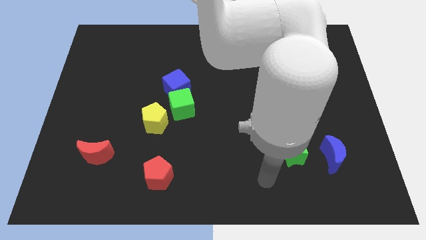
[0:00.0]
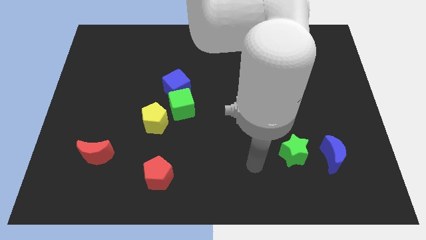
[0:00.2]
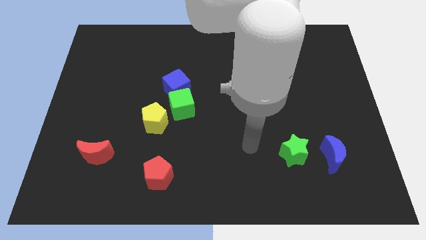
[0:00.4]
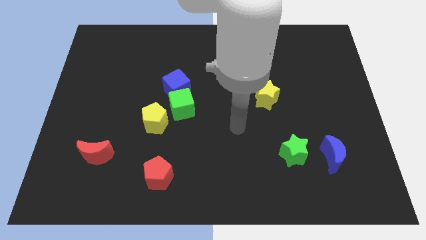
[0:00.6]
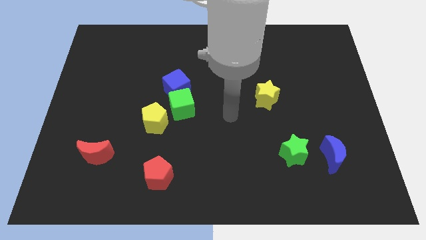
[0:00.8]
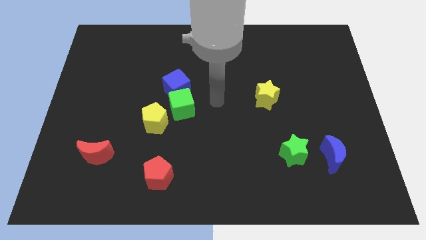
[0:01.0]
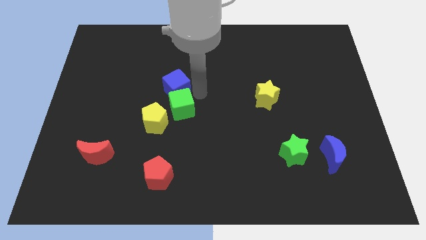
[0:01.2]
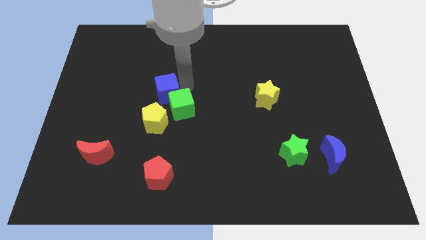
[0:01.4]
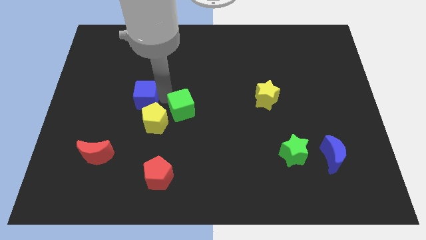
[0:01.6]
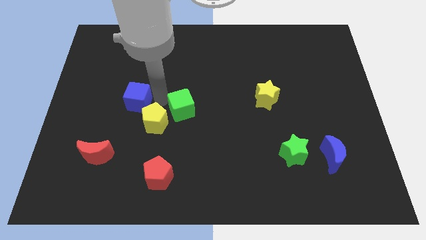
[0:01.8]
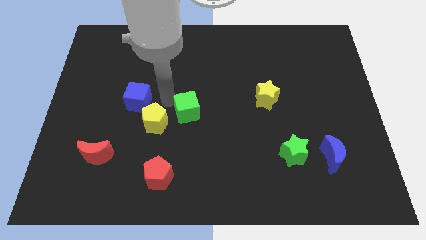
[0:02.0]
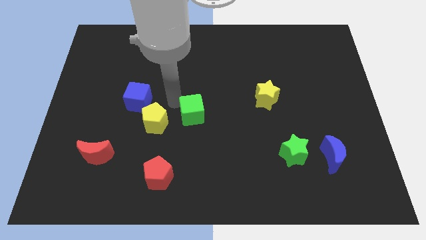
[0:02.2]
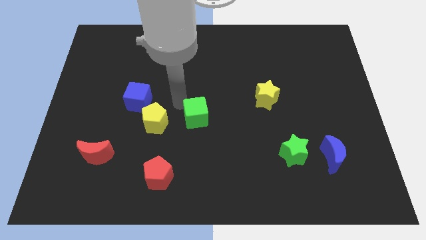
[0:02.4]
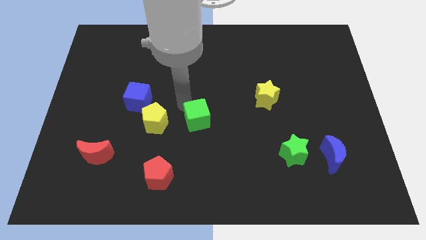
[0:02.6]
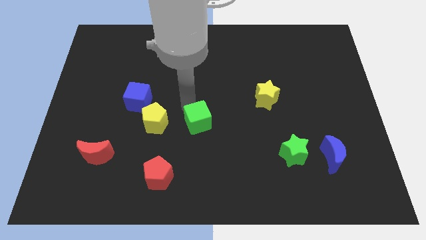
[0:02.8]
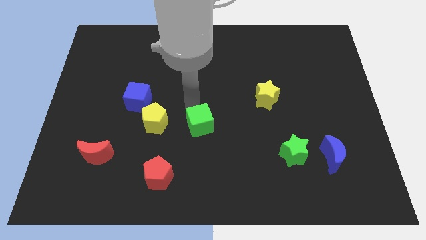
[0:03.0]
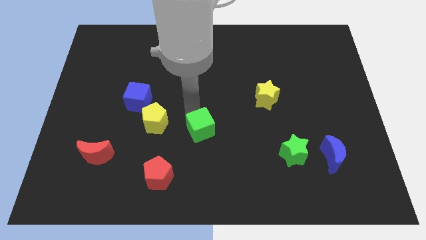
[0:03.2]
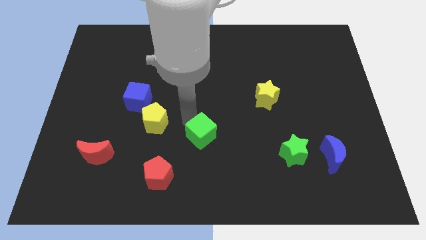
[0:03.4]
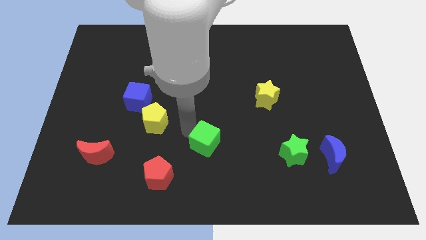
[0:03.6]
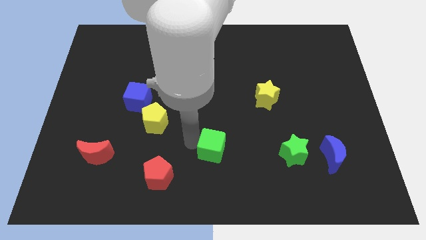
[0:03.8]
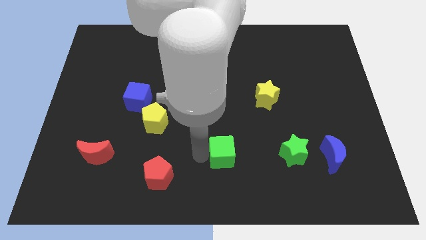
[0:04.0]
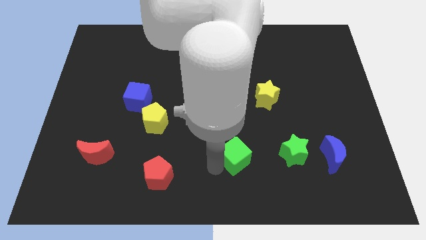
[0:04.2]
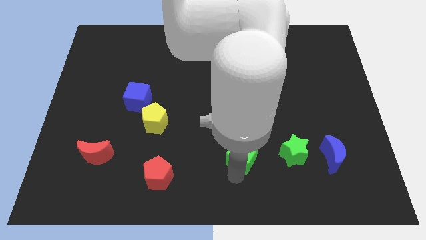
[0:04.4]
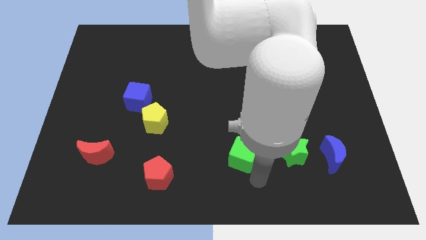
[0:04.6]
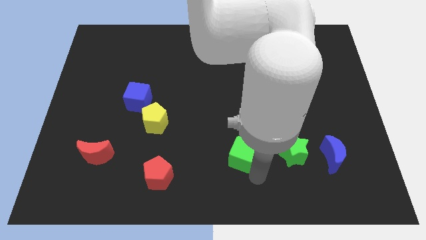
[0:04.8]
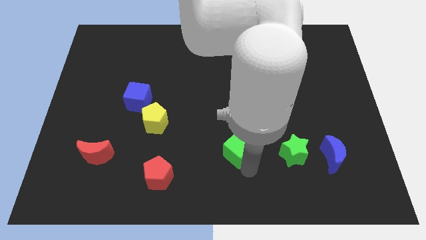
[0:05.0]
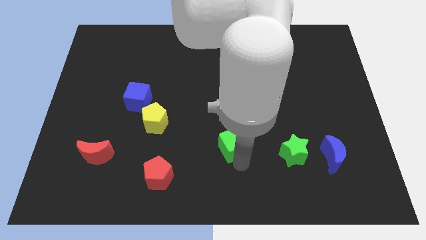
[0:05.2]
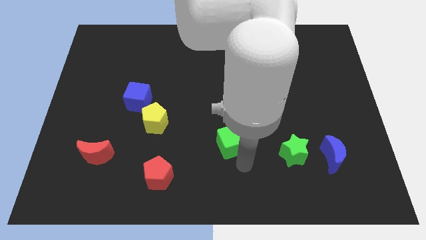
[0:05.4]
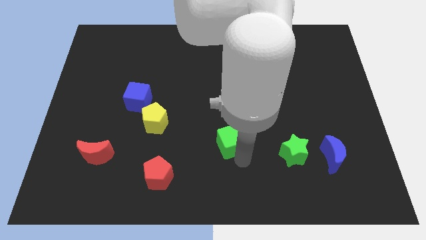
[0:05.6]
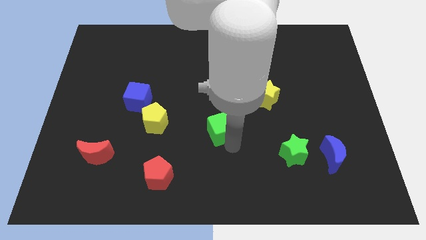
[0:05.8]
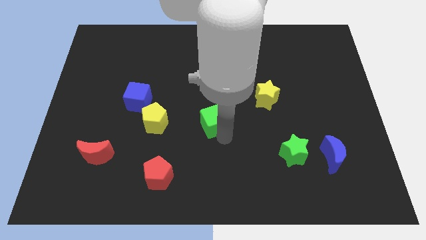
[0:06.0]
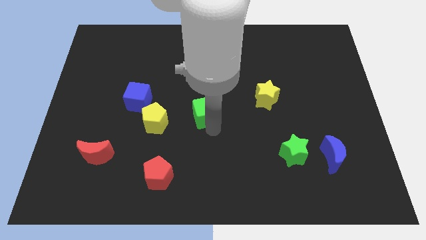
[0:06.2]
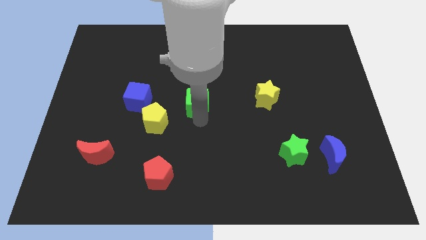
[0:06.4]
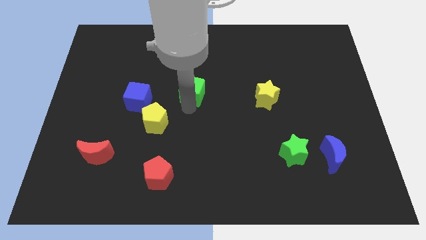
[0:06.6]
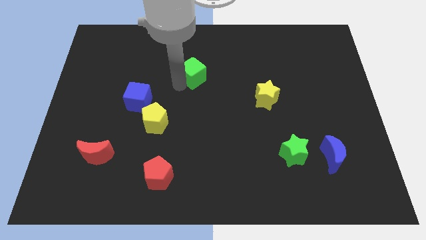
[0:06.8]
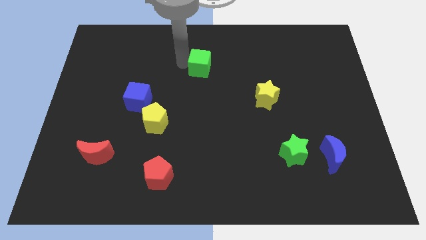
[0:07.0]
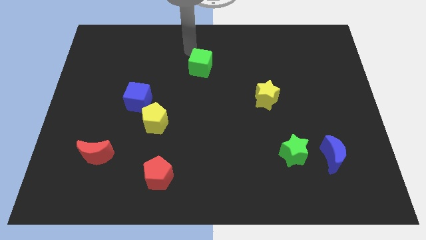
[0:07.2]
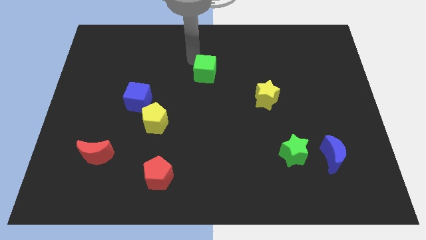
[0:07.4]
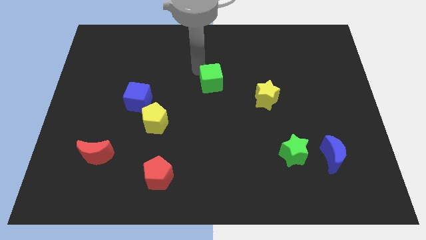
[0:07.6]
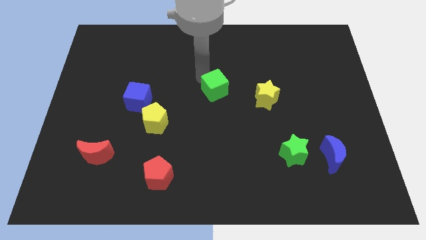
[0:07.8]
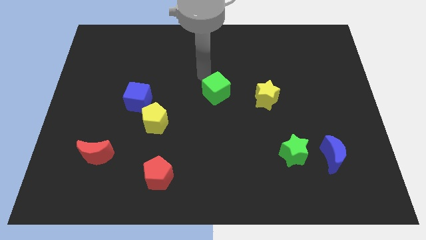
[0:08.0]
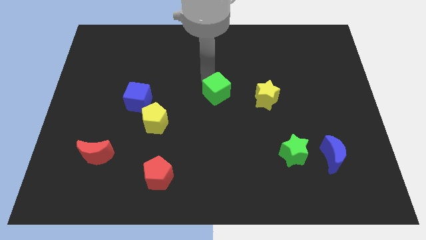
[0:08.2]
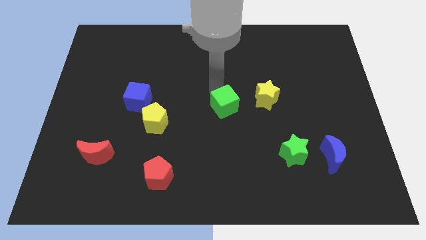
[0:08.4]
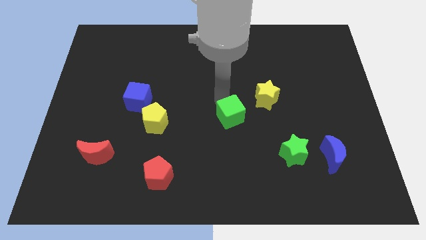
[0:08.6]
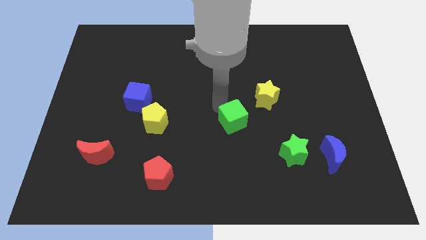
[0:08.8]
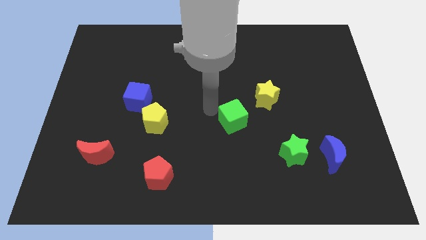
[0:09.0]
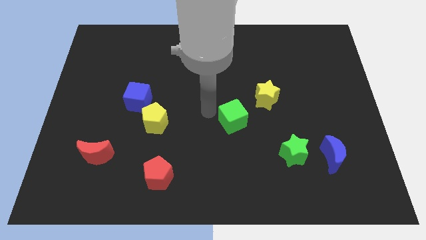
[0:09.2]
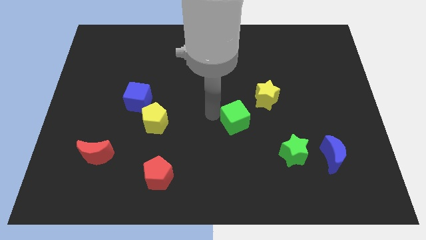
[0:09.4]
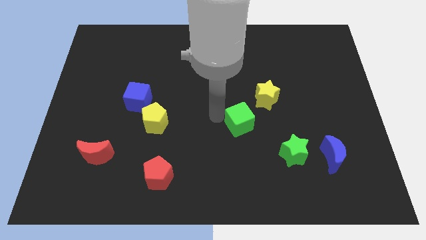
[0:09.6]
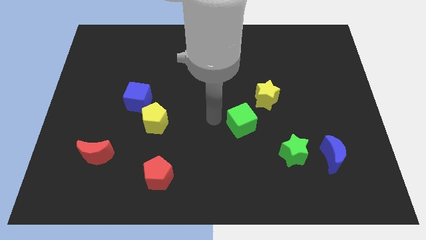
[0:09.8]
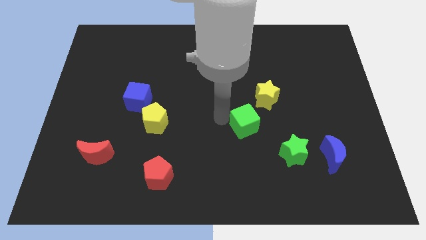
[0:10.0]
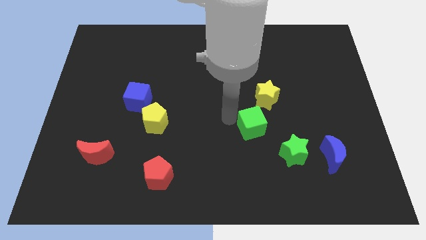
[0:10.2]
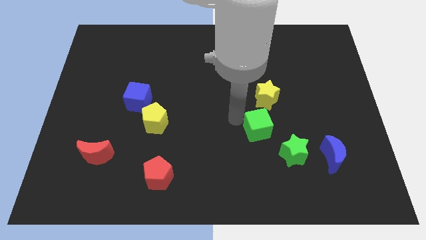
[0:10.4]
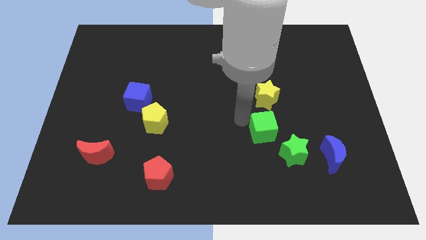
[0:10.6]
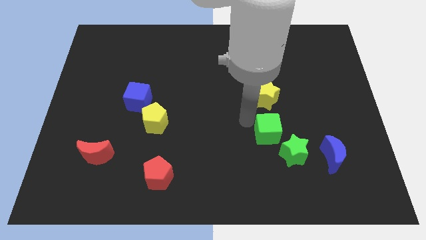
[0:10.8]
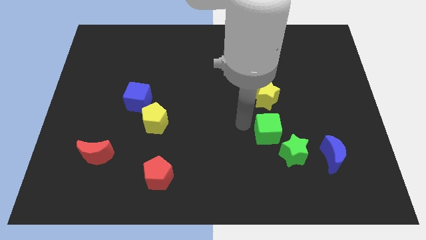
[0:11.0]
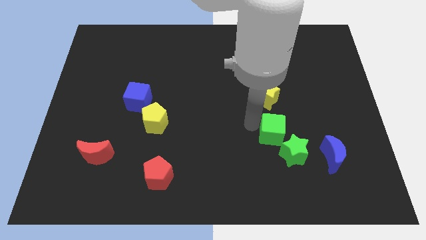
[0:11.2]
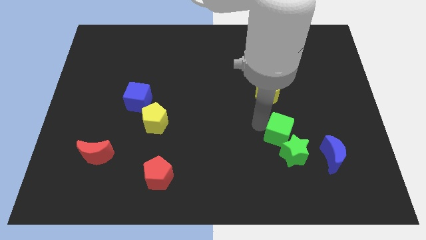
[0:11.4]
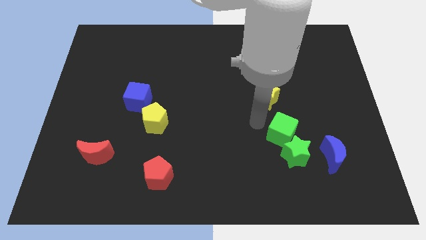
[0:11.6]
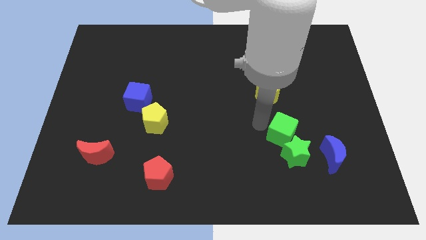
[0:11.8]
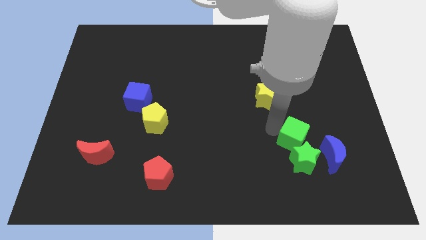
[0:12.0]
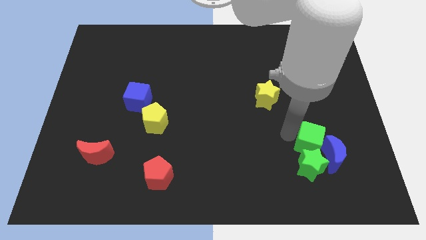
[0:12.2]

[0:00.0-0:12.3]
move the green cube next to the blue moon
